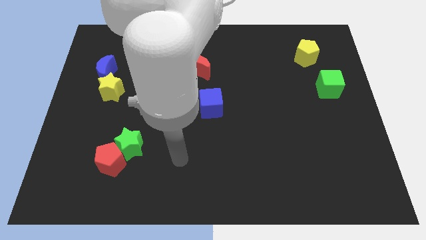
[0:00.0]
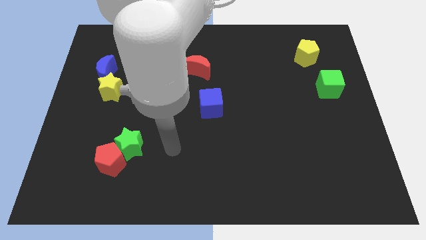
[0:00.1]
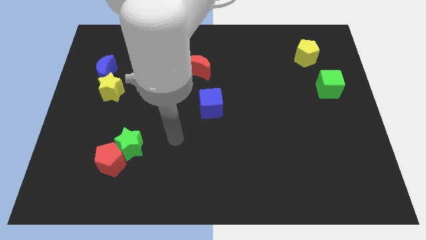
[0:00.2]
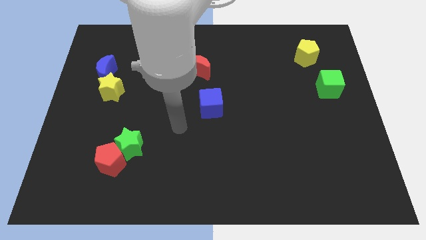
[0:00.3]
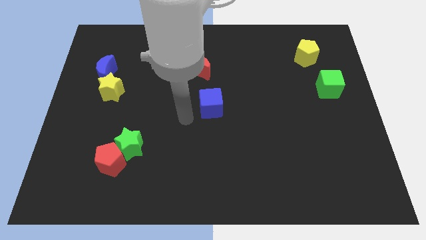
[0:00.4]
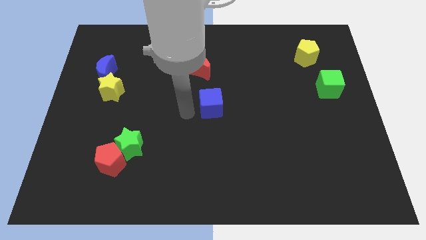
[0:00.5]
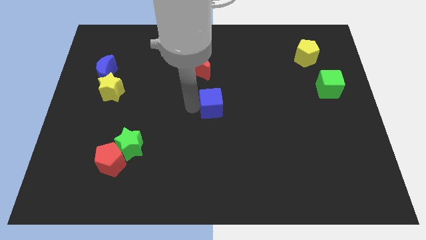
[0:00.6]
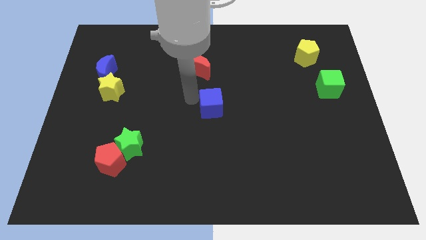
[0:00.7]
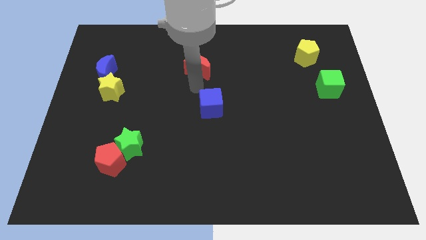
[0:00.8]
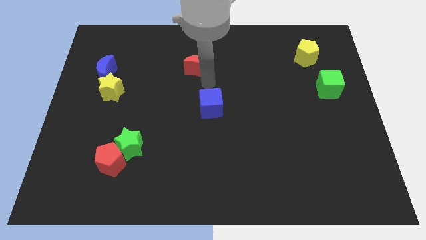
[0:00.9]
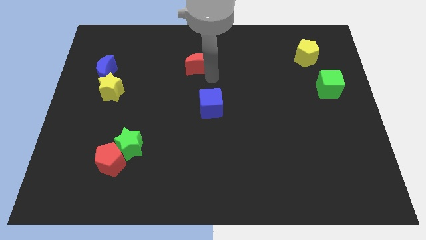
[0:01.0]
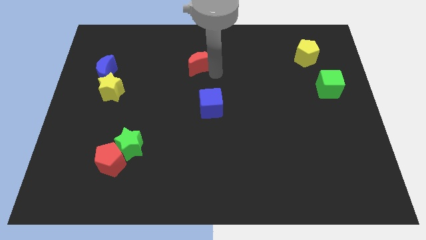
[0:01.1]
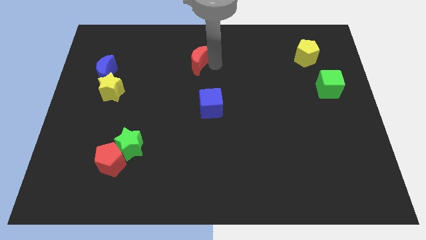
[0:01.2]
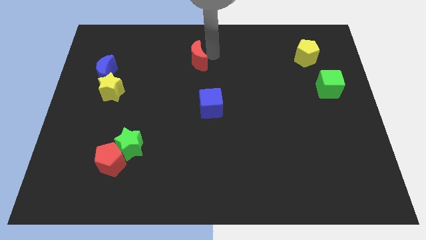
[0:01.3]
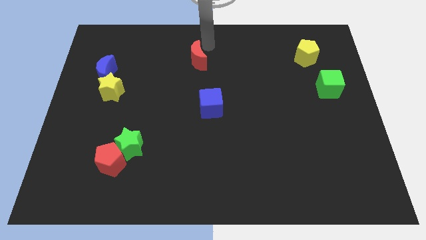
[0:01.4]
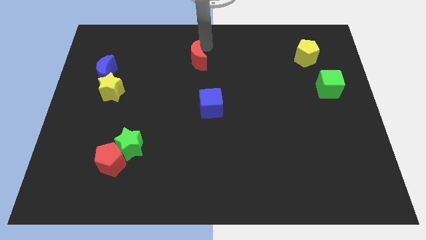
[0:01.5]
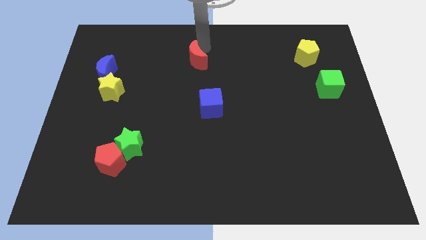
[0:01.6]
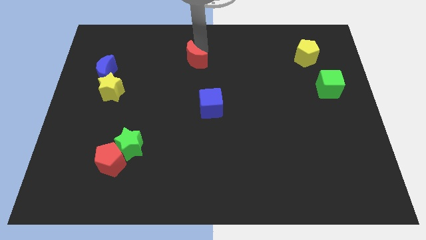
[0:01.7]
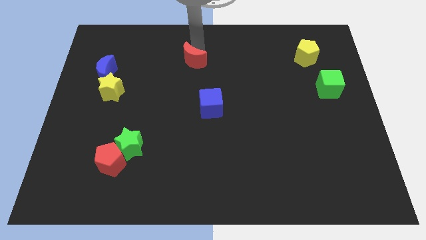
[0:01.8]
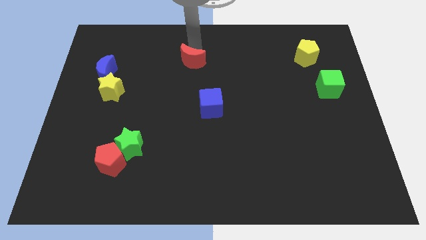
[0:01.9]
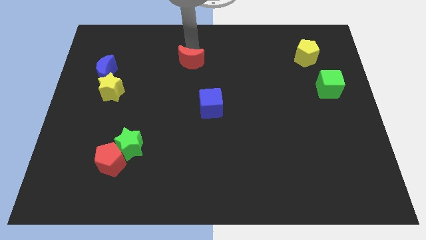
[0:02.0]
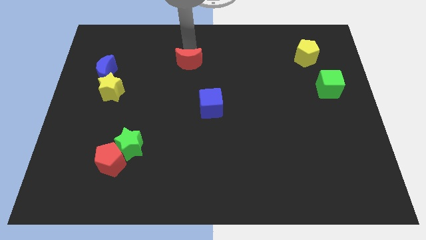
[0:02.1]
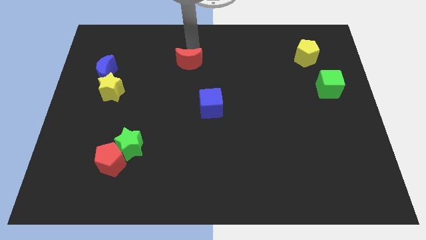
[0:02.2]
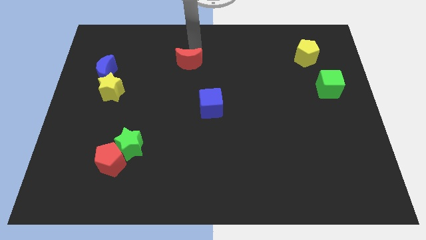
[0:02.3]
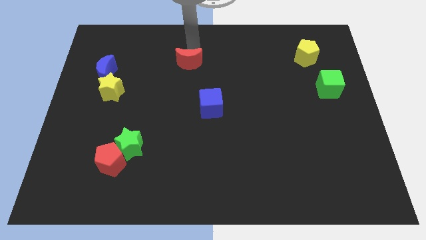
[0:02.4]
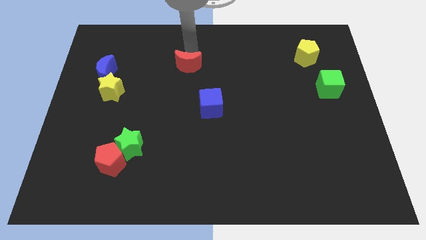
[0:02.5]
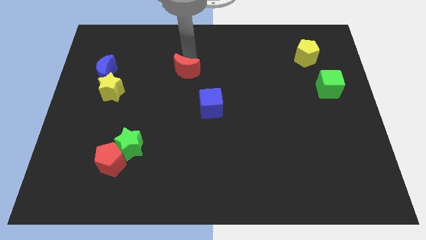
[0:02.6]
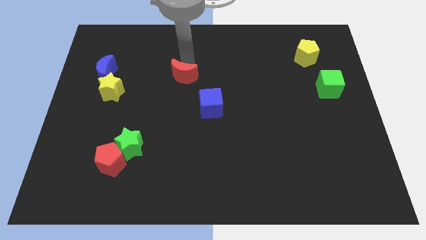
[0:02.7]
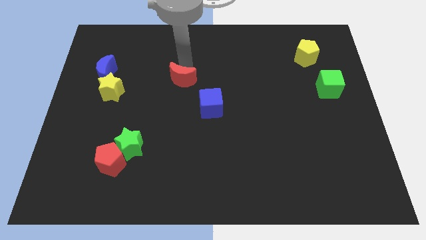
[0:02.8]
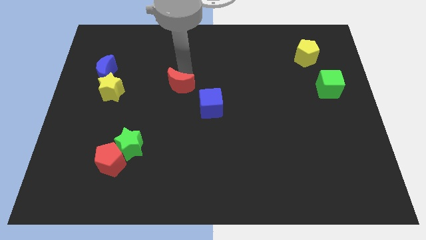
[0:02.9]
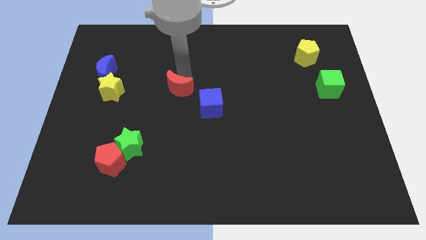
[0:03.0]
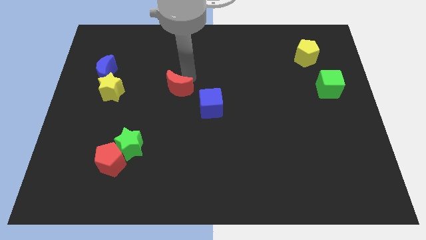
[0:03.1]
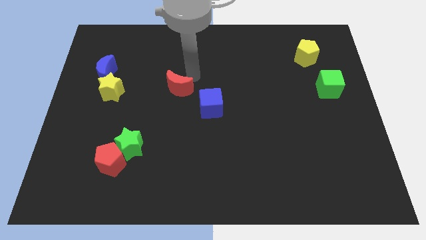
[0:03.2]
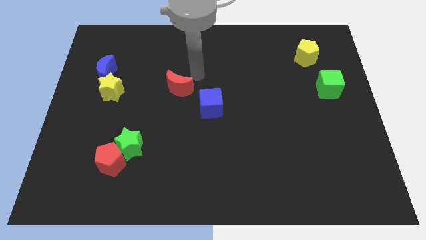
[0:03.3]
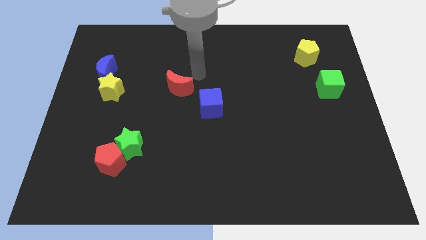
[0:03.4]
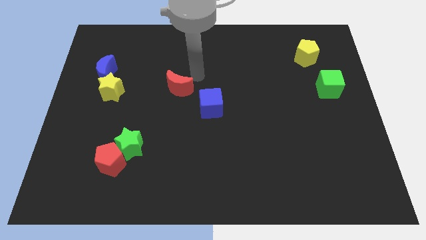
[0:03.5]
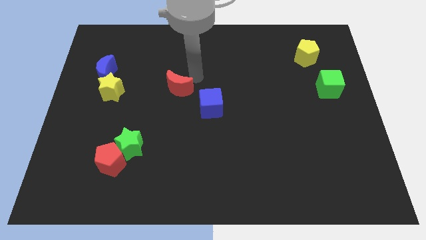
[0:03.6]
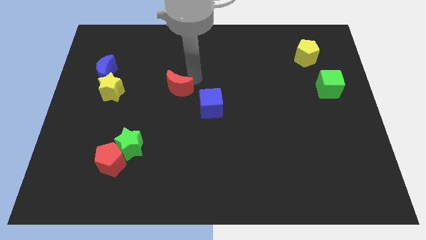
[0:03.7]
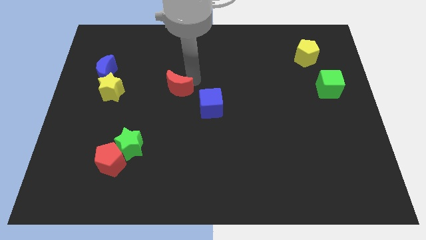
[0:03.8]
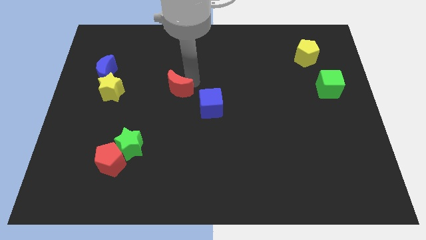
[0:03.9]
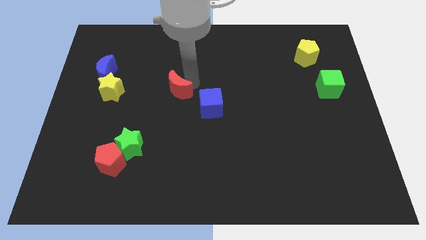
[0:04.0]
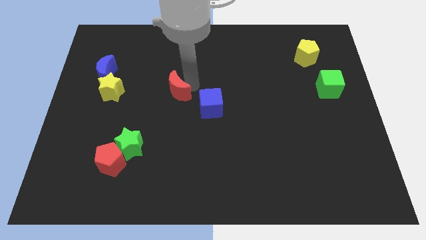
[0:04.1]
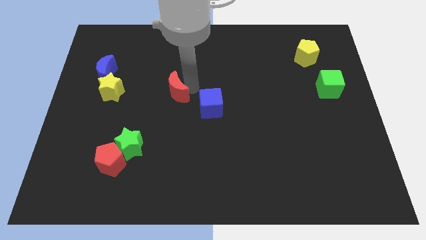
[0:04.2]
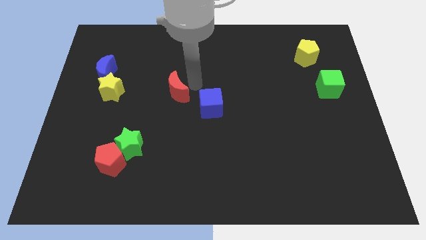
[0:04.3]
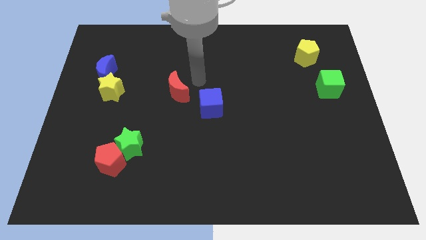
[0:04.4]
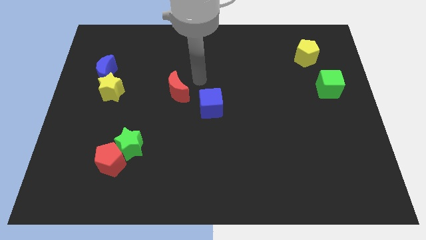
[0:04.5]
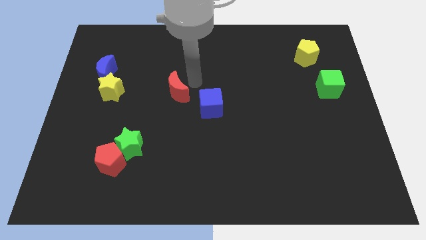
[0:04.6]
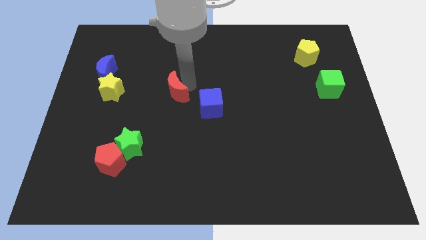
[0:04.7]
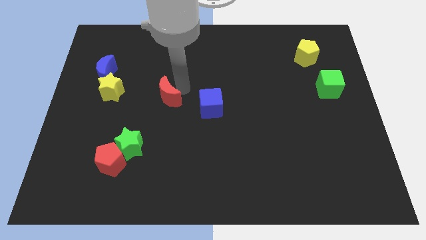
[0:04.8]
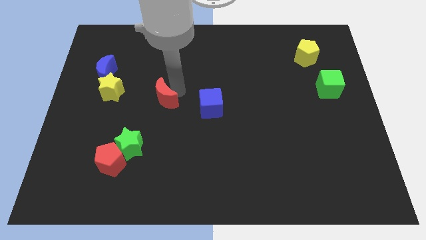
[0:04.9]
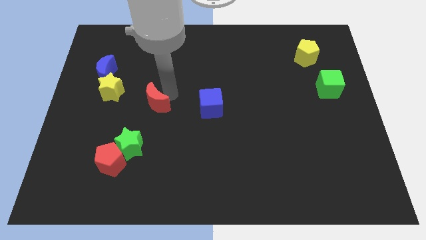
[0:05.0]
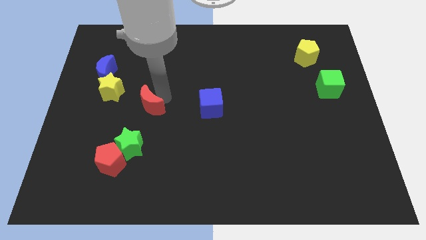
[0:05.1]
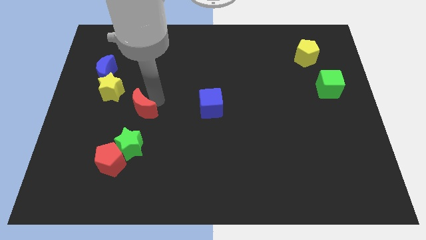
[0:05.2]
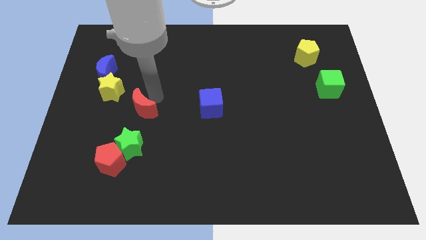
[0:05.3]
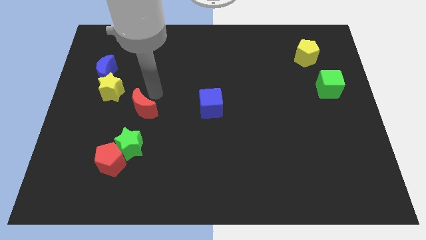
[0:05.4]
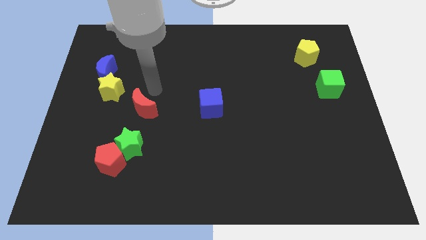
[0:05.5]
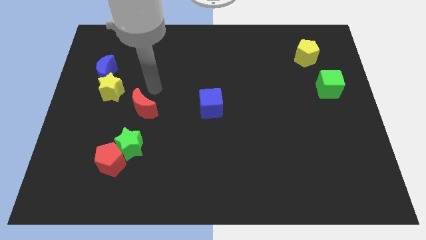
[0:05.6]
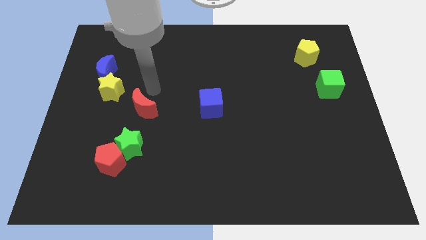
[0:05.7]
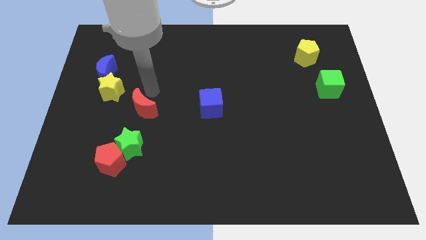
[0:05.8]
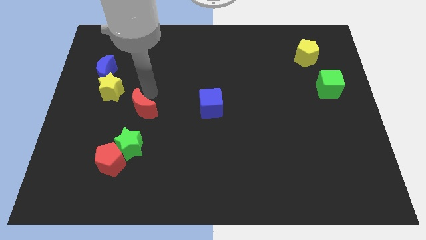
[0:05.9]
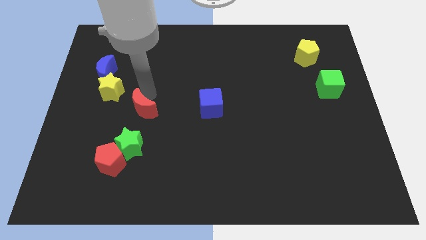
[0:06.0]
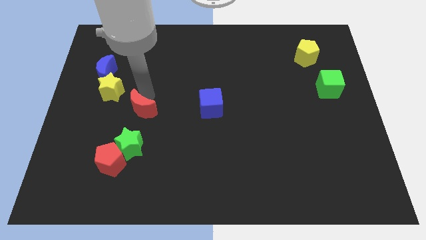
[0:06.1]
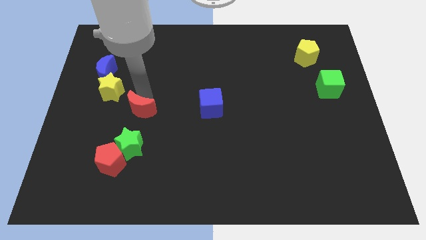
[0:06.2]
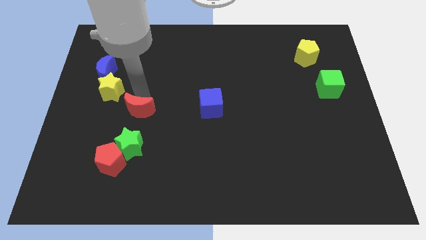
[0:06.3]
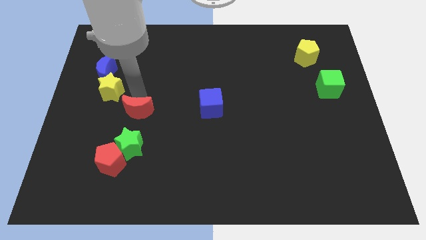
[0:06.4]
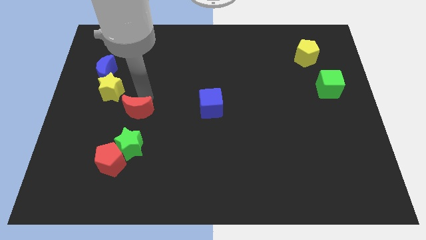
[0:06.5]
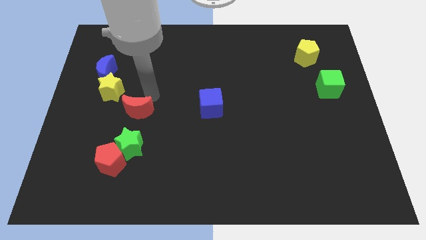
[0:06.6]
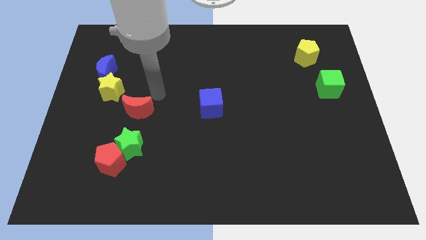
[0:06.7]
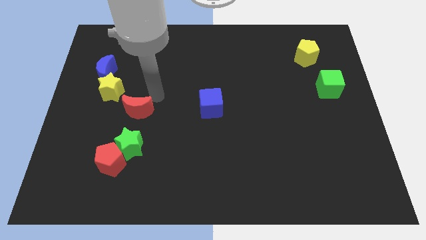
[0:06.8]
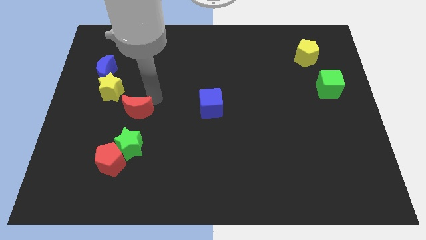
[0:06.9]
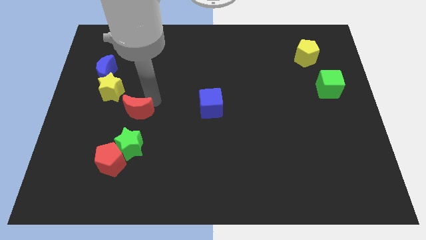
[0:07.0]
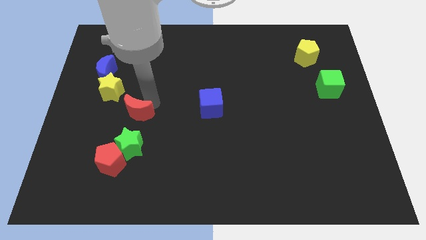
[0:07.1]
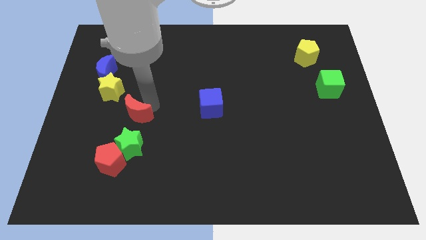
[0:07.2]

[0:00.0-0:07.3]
push the red moon down and left

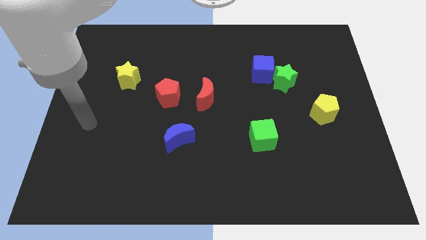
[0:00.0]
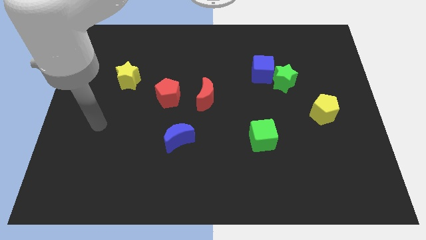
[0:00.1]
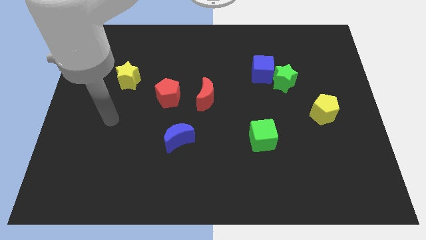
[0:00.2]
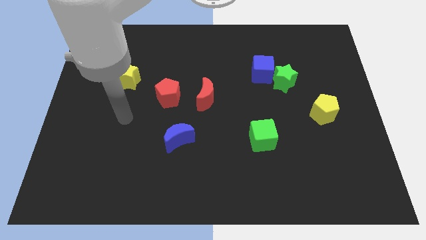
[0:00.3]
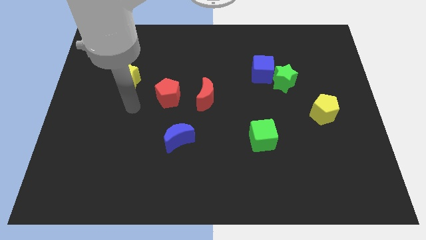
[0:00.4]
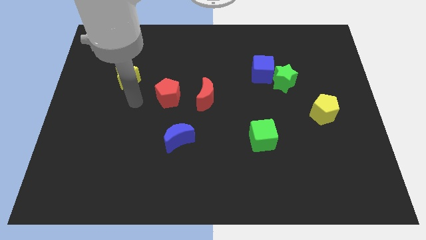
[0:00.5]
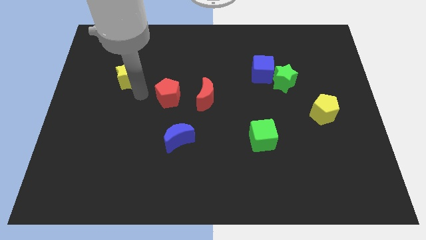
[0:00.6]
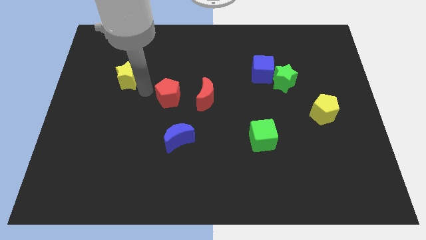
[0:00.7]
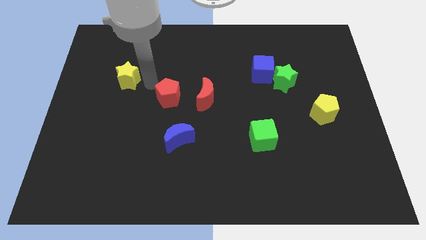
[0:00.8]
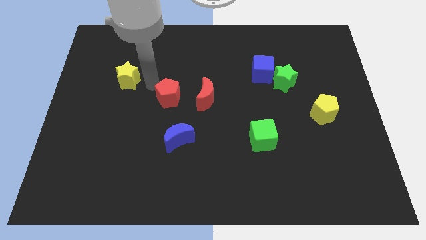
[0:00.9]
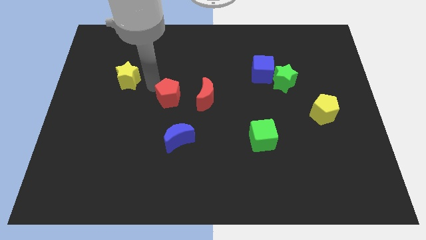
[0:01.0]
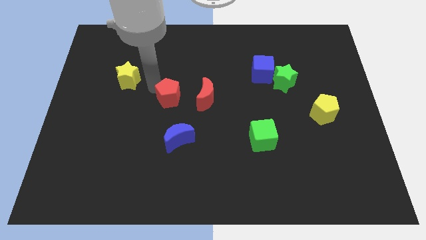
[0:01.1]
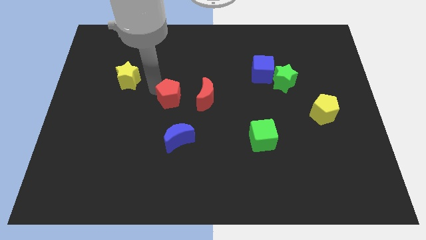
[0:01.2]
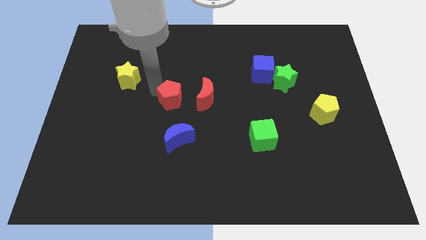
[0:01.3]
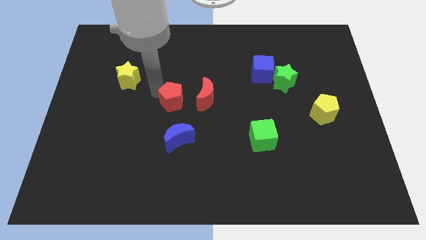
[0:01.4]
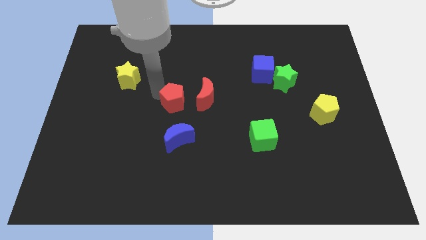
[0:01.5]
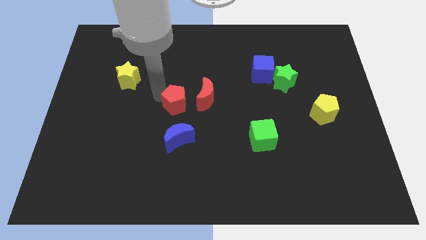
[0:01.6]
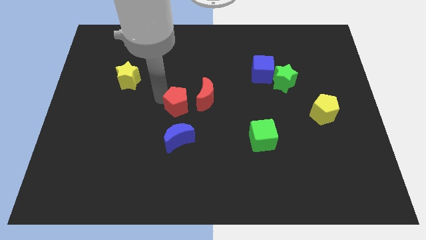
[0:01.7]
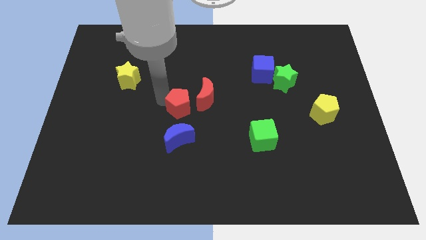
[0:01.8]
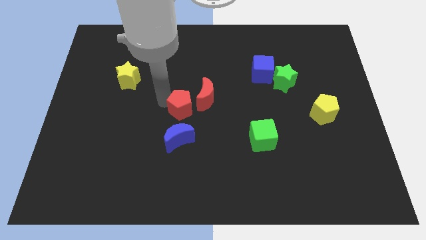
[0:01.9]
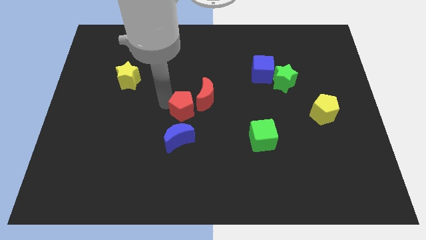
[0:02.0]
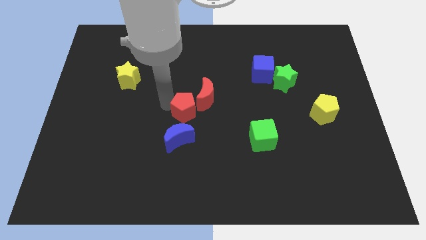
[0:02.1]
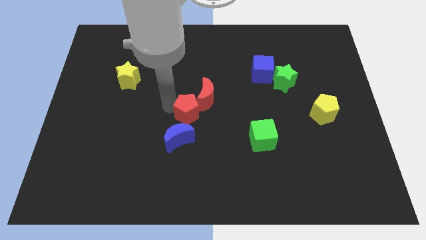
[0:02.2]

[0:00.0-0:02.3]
push the red pentagon a bit diagonally down and to the right
